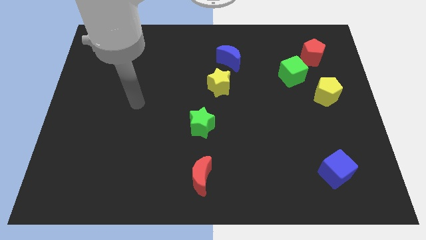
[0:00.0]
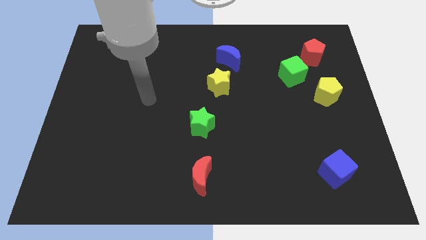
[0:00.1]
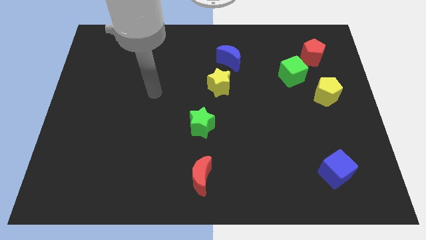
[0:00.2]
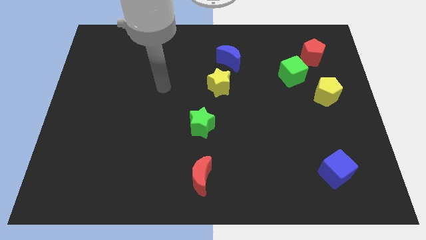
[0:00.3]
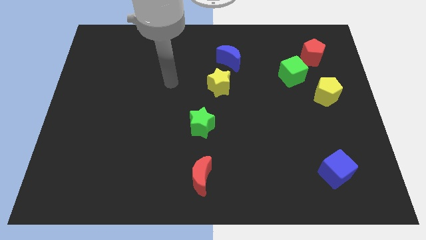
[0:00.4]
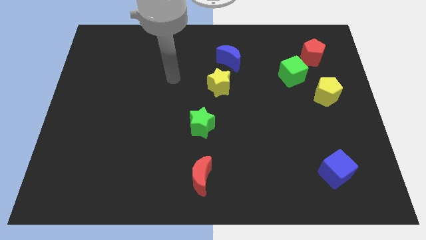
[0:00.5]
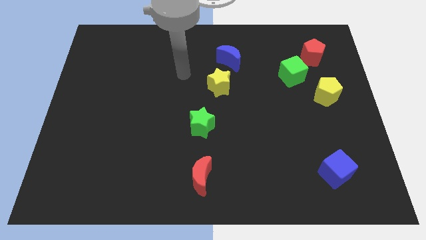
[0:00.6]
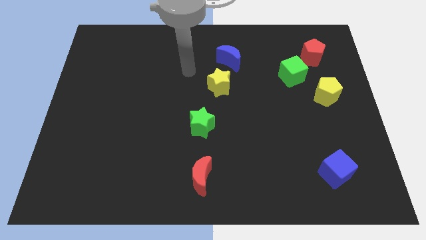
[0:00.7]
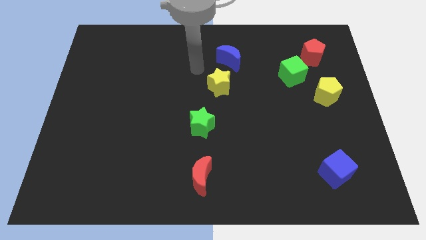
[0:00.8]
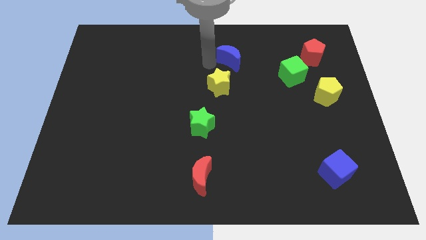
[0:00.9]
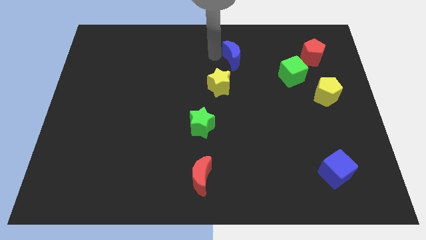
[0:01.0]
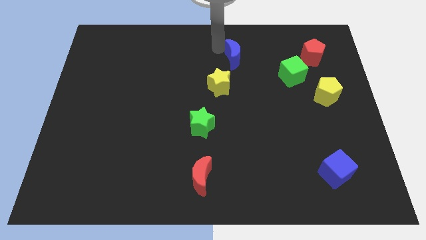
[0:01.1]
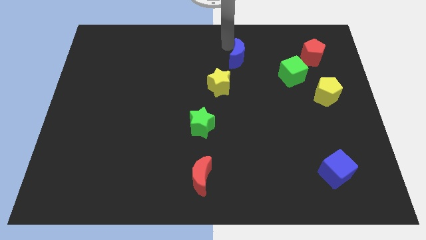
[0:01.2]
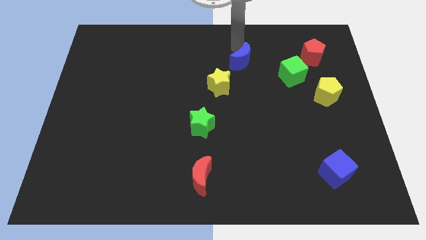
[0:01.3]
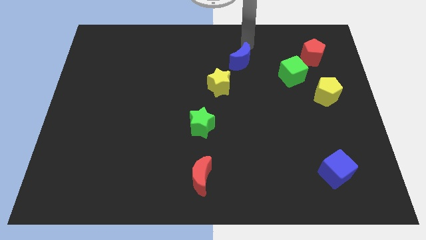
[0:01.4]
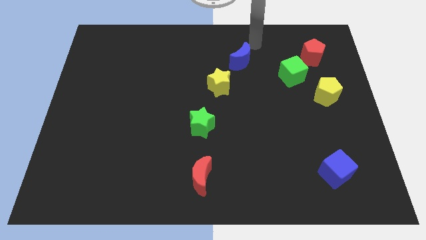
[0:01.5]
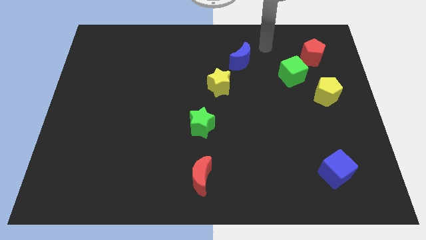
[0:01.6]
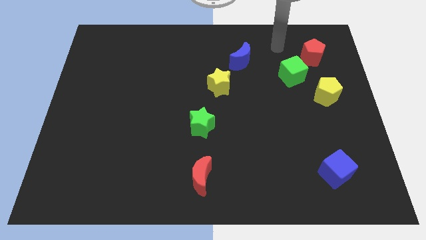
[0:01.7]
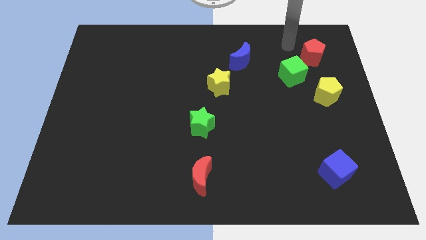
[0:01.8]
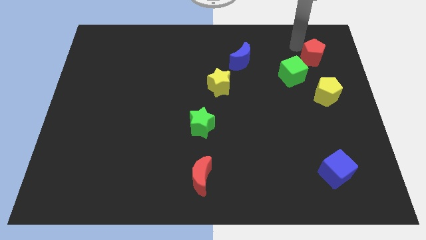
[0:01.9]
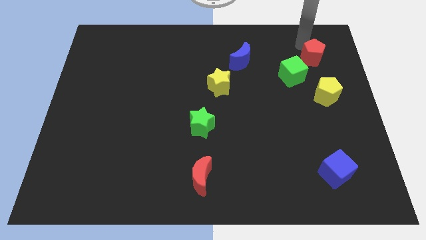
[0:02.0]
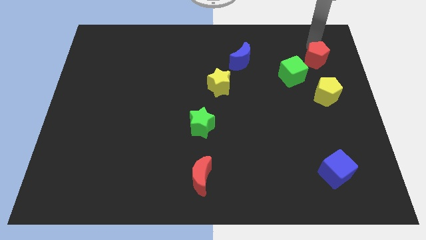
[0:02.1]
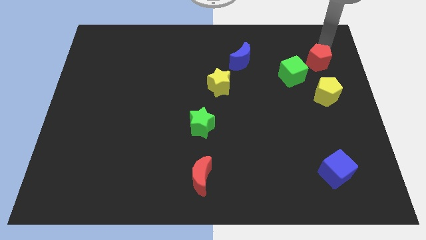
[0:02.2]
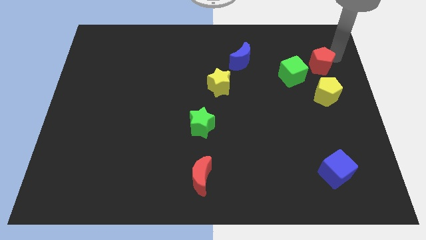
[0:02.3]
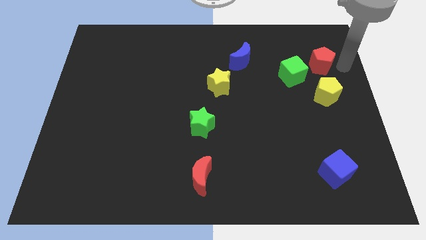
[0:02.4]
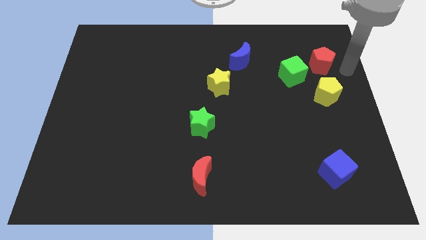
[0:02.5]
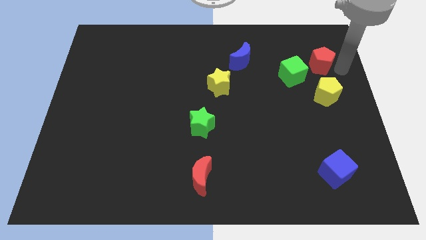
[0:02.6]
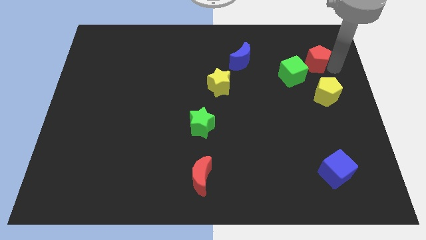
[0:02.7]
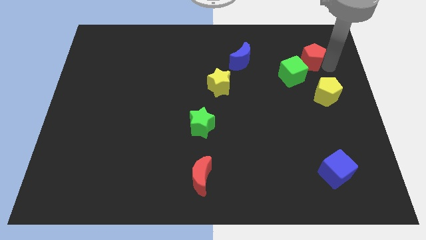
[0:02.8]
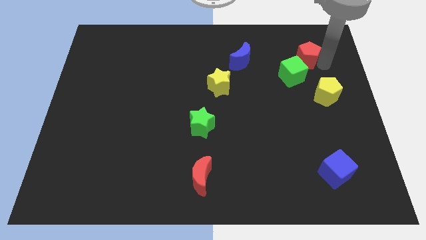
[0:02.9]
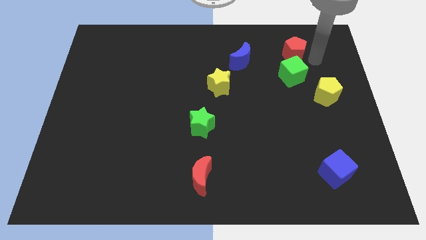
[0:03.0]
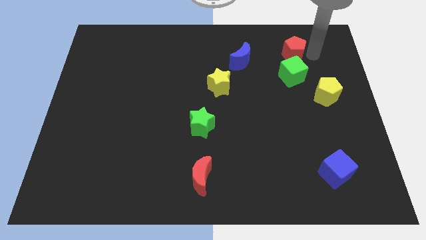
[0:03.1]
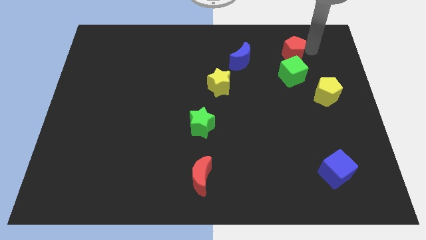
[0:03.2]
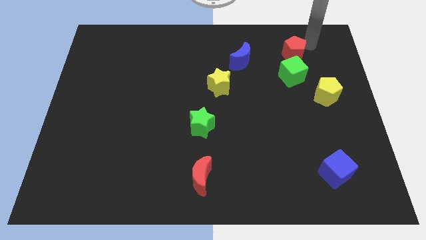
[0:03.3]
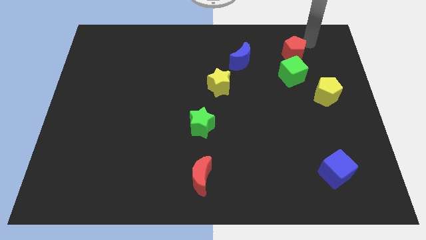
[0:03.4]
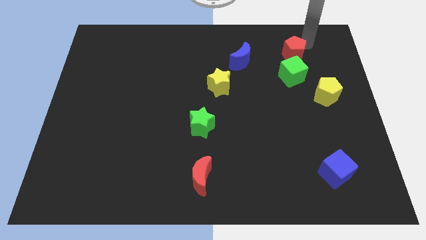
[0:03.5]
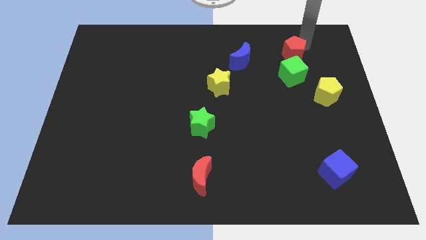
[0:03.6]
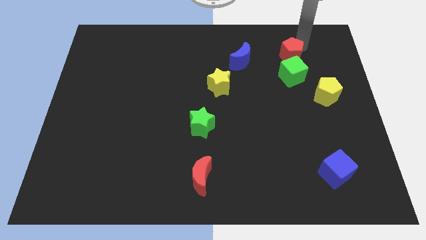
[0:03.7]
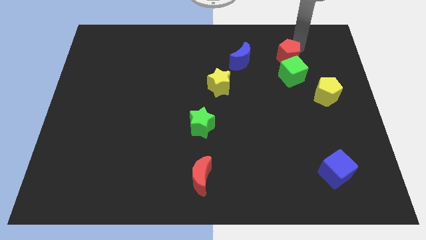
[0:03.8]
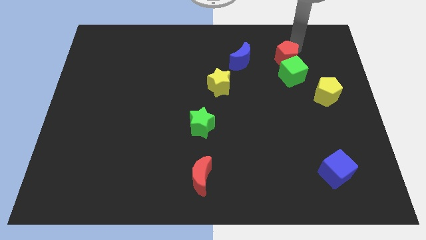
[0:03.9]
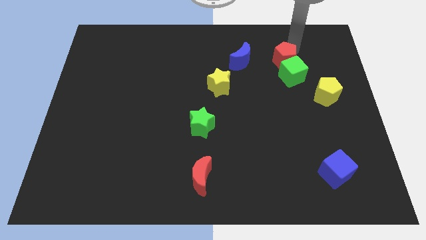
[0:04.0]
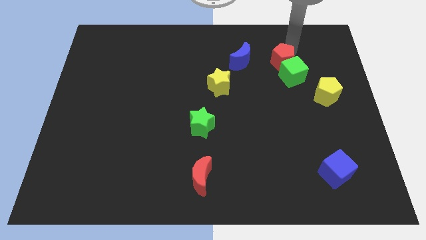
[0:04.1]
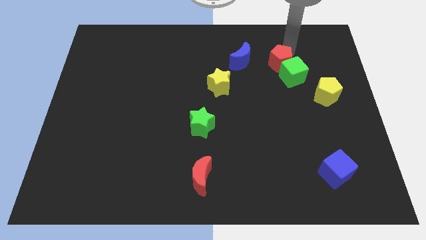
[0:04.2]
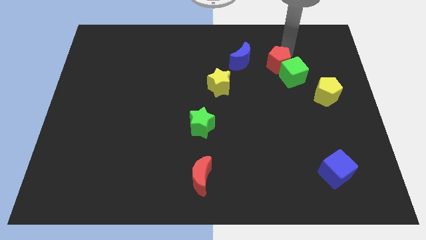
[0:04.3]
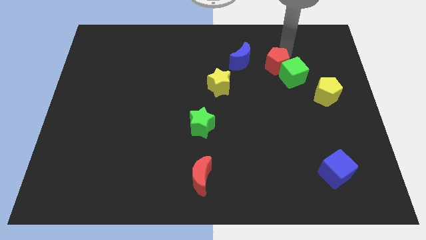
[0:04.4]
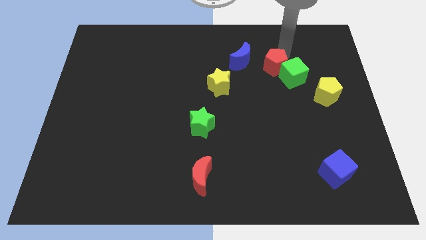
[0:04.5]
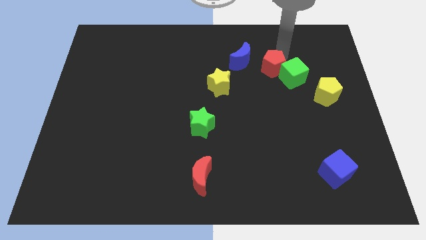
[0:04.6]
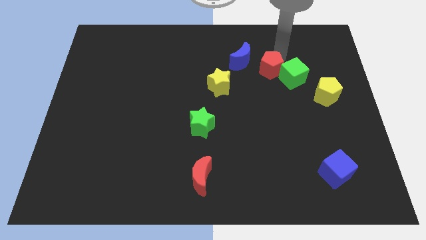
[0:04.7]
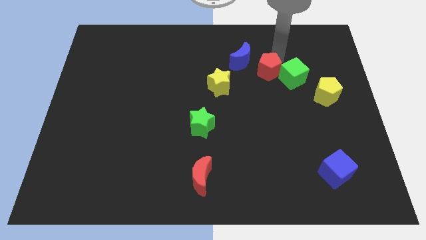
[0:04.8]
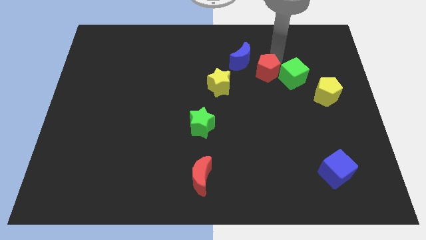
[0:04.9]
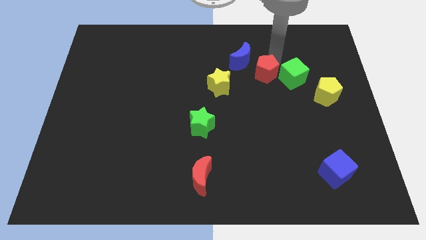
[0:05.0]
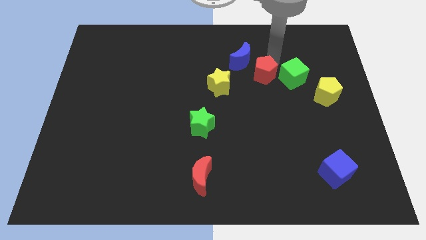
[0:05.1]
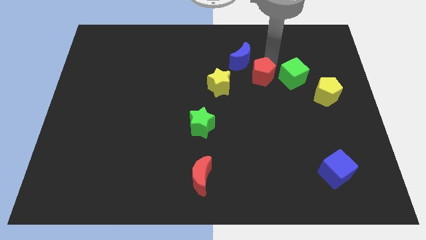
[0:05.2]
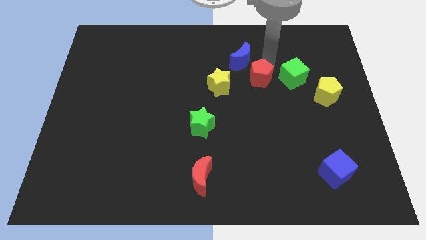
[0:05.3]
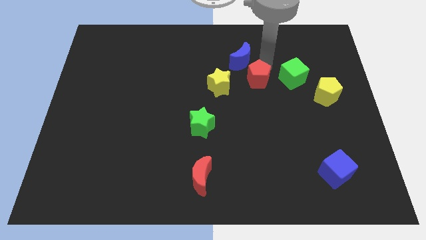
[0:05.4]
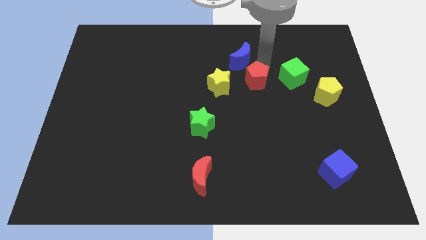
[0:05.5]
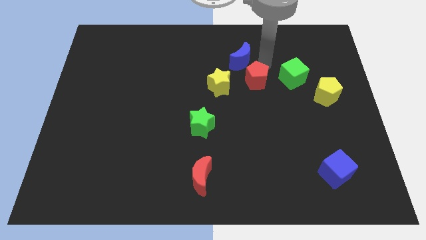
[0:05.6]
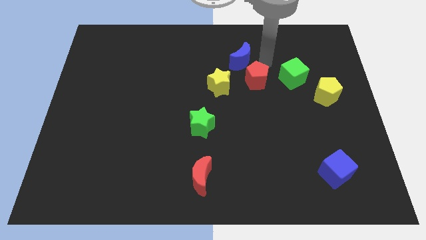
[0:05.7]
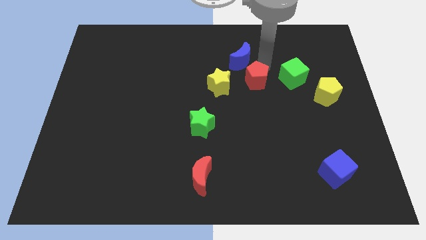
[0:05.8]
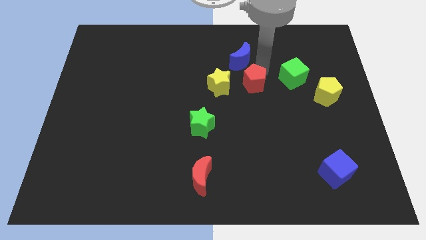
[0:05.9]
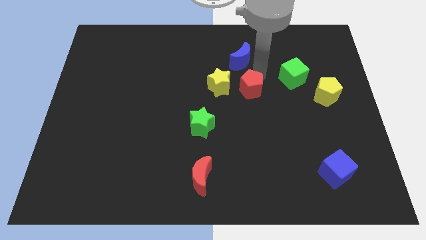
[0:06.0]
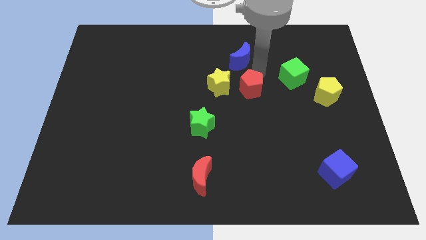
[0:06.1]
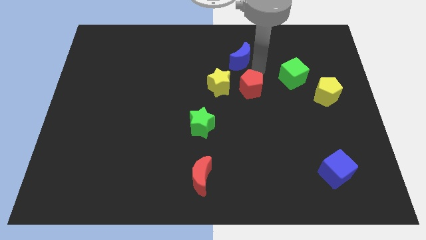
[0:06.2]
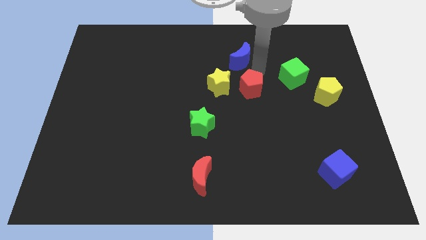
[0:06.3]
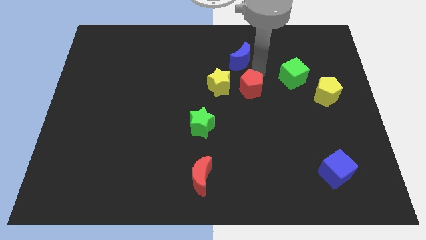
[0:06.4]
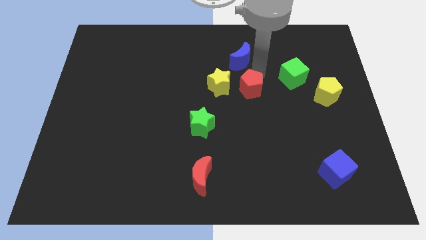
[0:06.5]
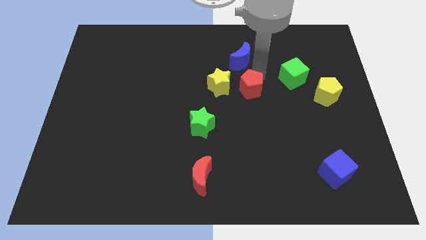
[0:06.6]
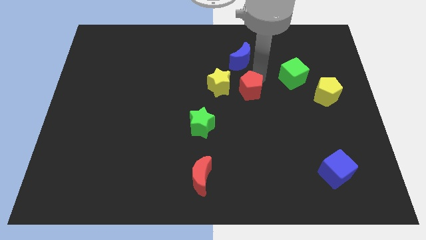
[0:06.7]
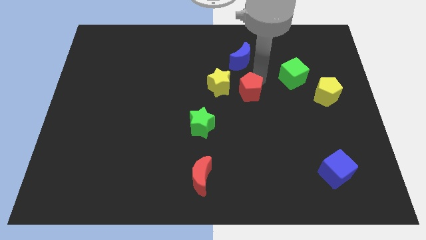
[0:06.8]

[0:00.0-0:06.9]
slide the red pentagon down and then left

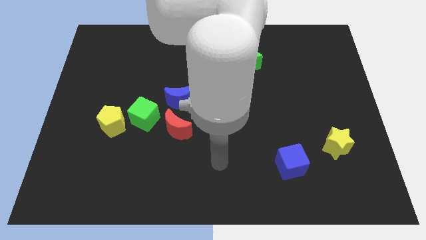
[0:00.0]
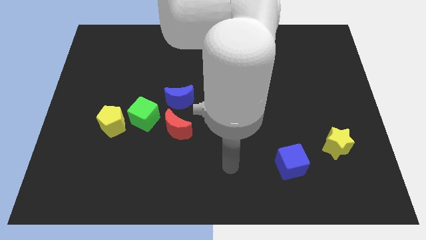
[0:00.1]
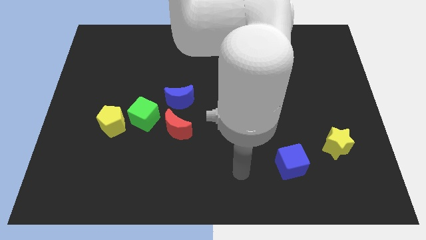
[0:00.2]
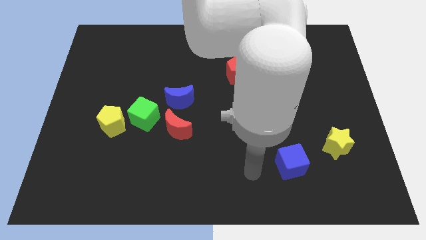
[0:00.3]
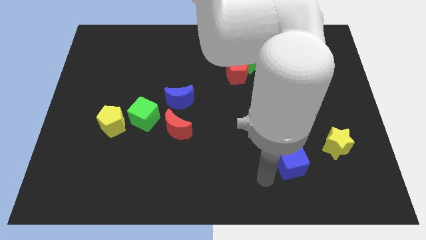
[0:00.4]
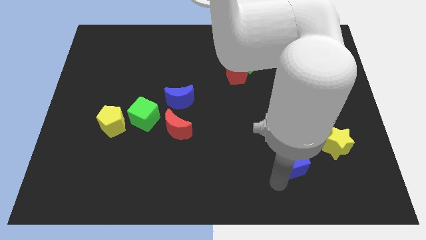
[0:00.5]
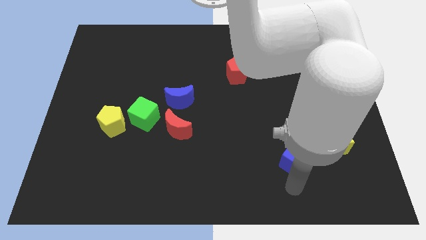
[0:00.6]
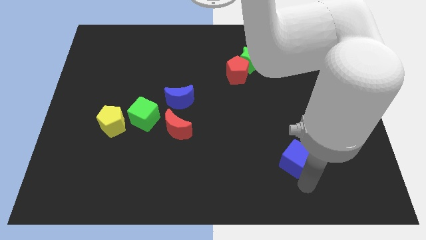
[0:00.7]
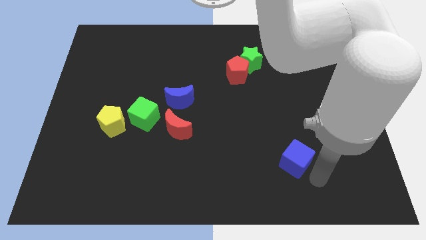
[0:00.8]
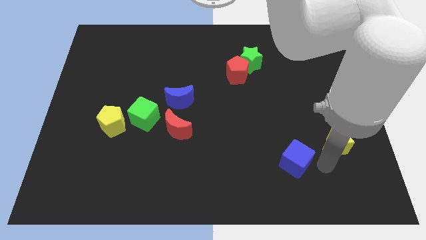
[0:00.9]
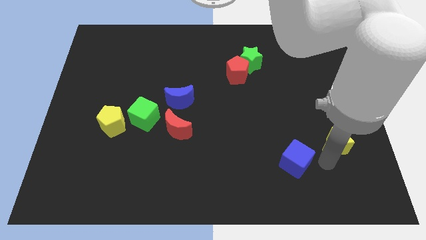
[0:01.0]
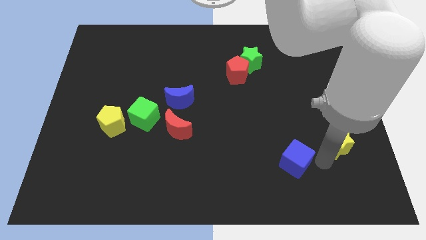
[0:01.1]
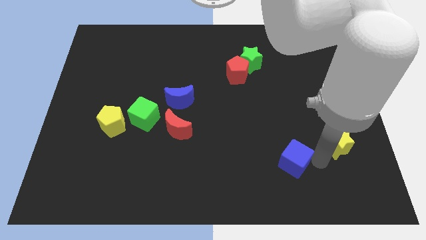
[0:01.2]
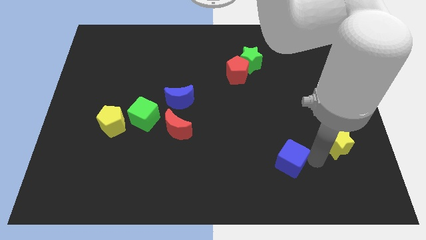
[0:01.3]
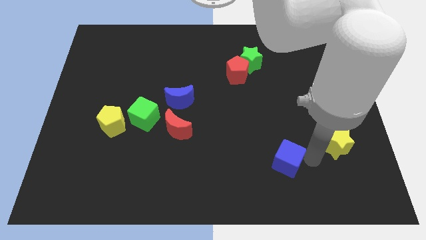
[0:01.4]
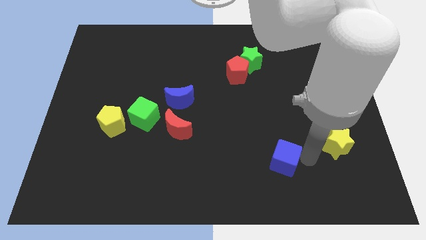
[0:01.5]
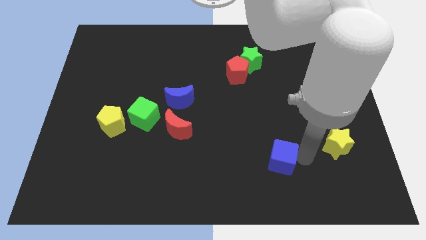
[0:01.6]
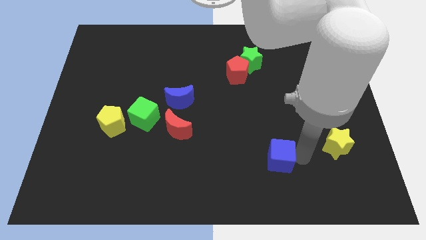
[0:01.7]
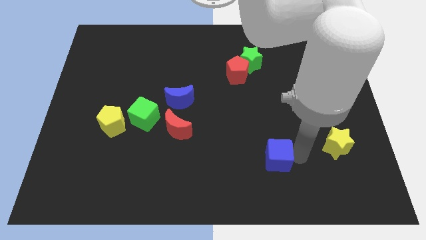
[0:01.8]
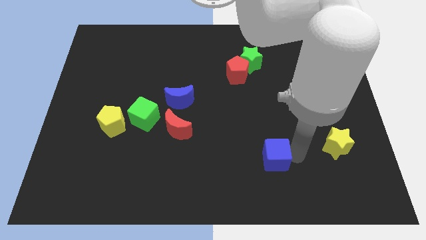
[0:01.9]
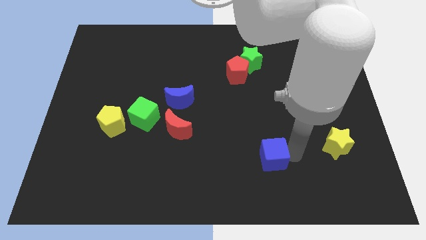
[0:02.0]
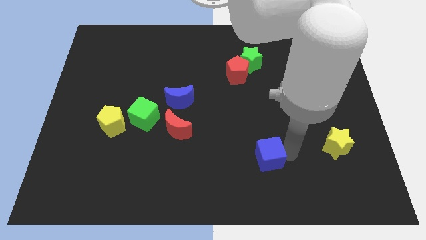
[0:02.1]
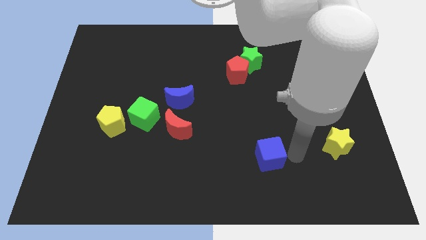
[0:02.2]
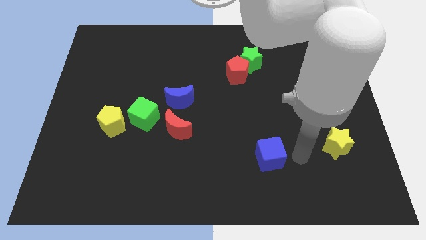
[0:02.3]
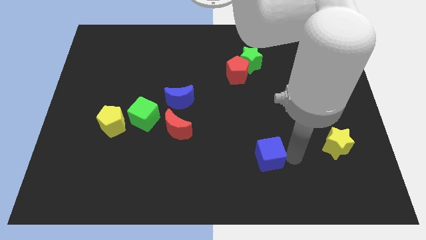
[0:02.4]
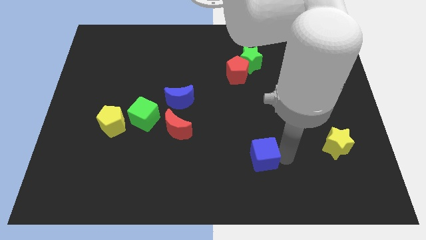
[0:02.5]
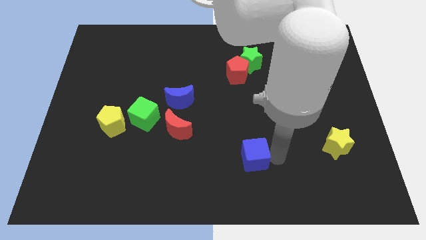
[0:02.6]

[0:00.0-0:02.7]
slightly move the blue cube left
